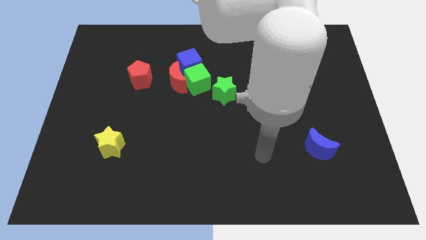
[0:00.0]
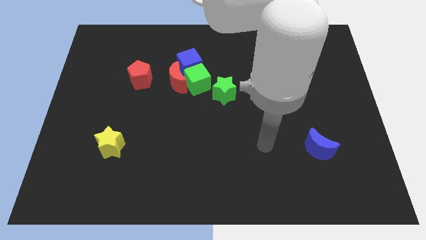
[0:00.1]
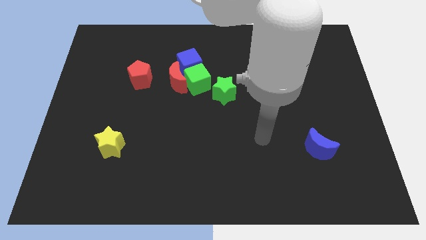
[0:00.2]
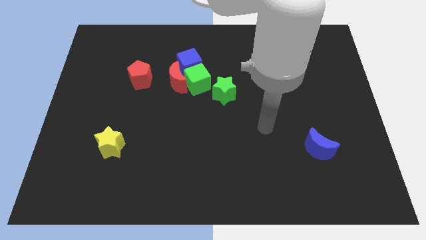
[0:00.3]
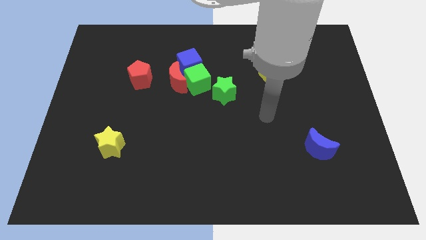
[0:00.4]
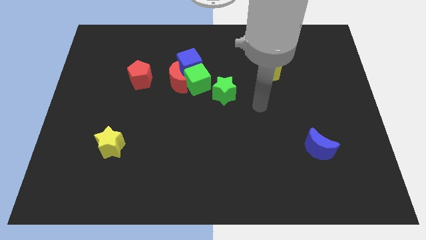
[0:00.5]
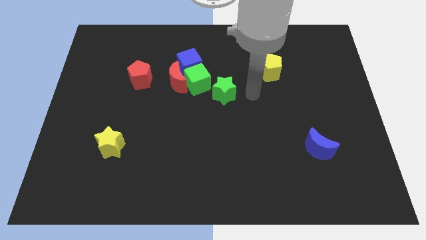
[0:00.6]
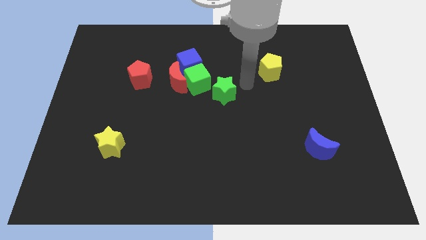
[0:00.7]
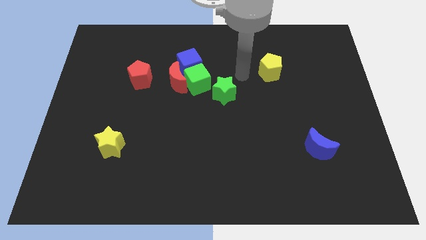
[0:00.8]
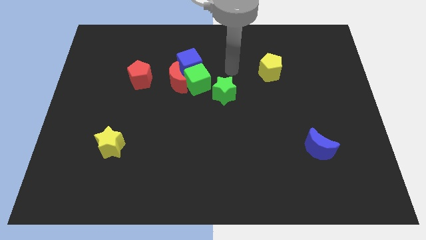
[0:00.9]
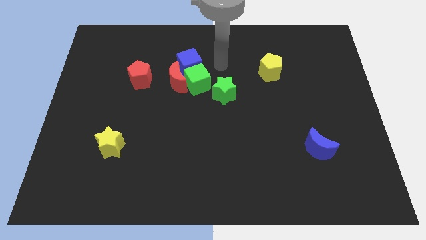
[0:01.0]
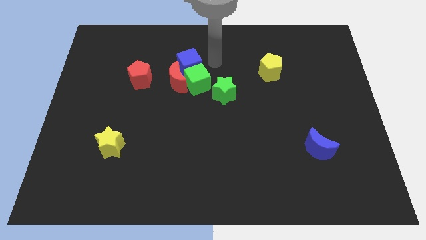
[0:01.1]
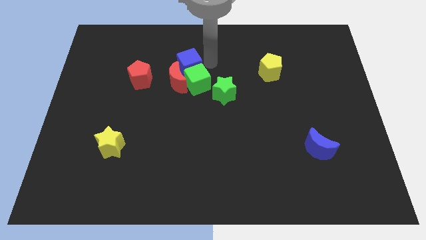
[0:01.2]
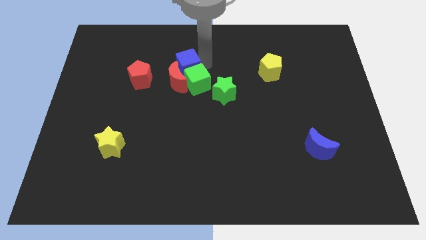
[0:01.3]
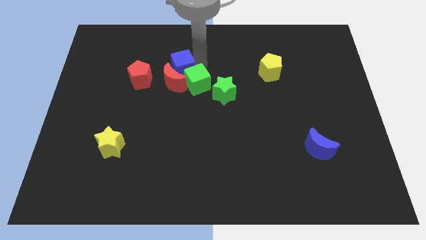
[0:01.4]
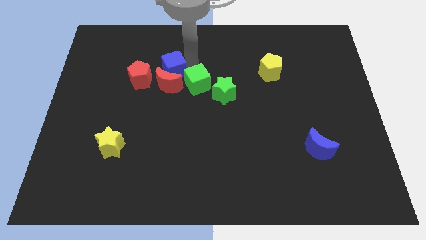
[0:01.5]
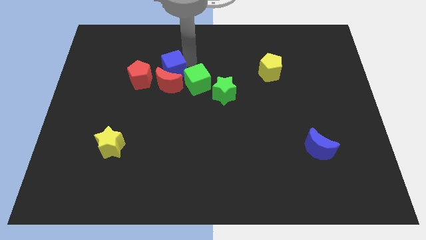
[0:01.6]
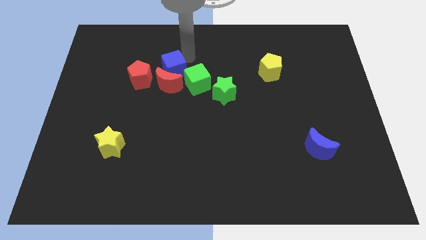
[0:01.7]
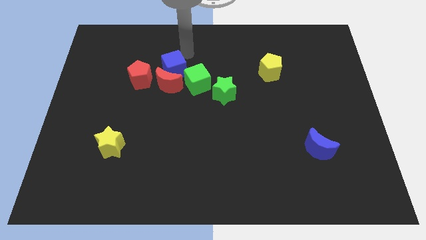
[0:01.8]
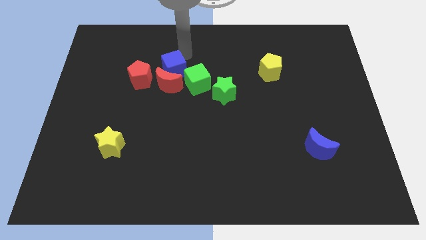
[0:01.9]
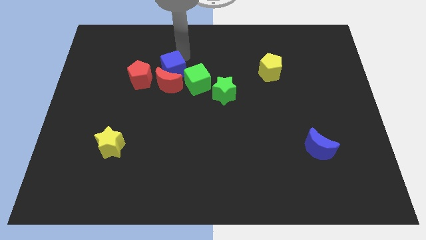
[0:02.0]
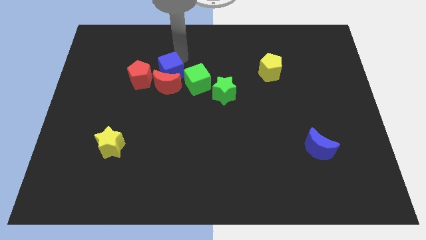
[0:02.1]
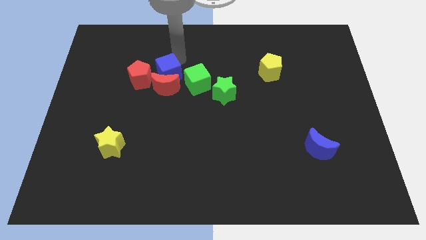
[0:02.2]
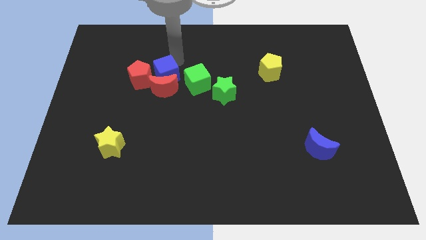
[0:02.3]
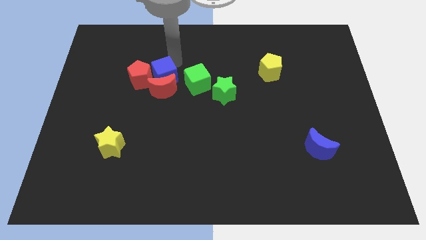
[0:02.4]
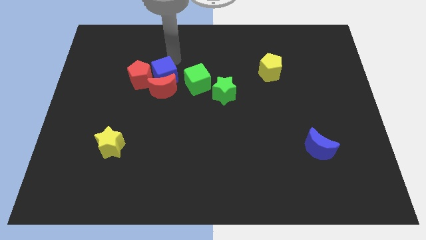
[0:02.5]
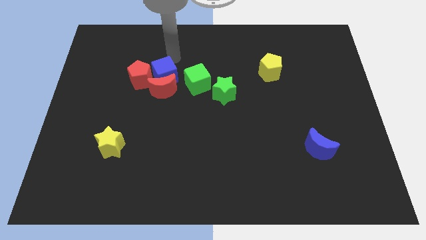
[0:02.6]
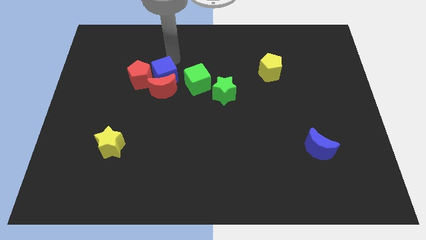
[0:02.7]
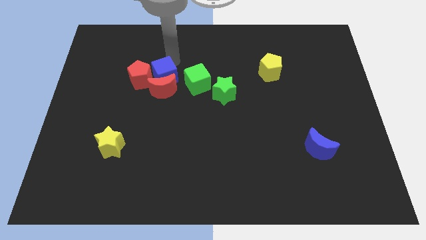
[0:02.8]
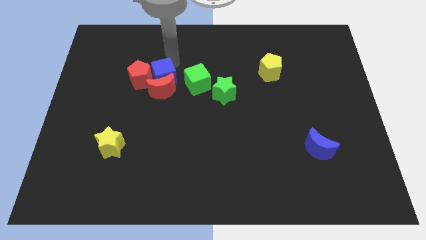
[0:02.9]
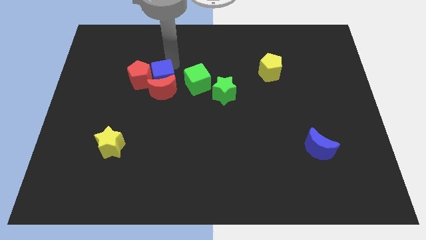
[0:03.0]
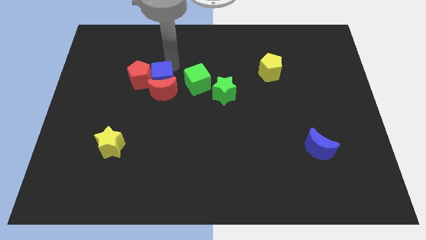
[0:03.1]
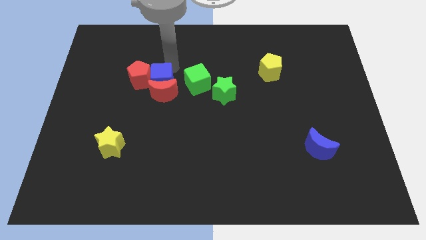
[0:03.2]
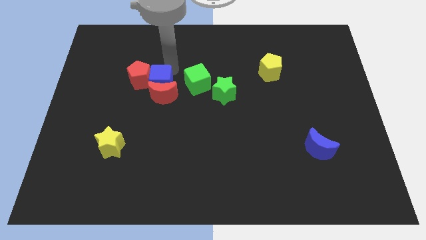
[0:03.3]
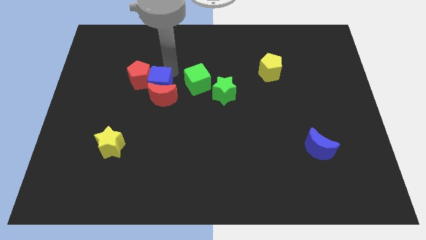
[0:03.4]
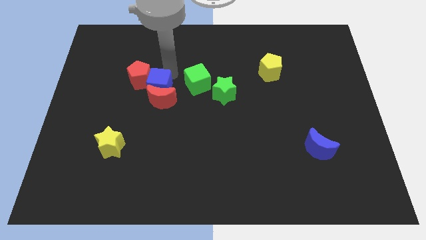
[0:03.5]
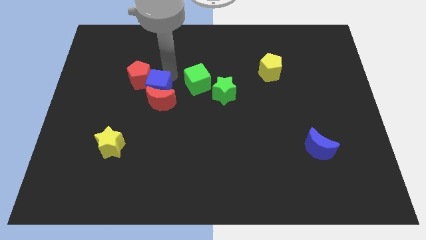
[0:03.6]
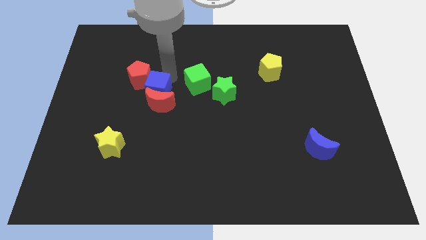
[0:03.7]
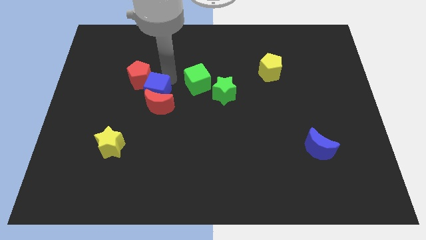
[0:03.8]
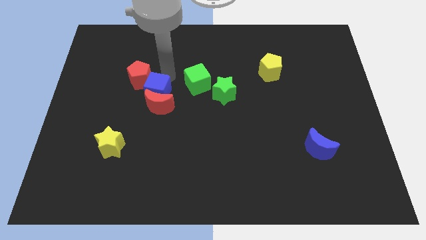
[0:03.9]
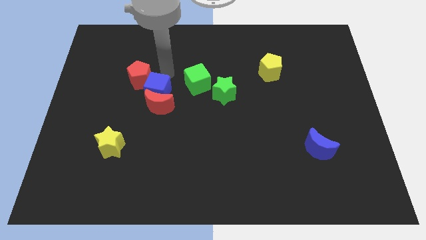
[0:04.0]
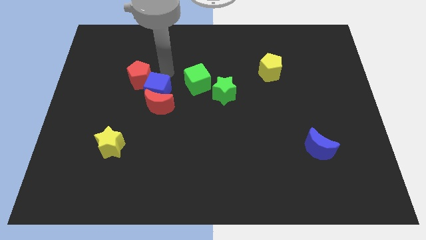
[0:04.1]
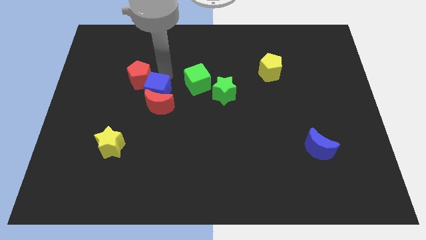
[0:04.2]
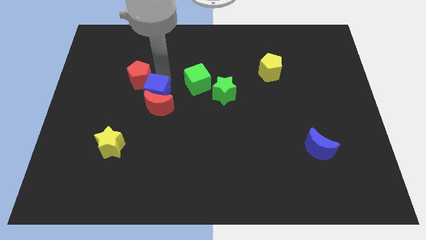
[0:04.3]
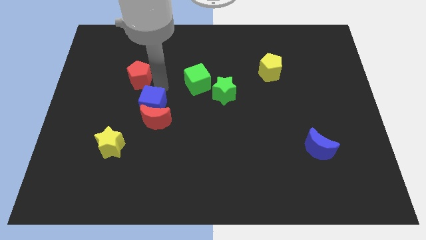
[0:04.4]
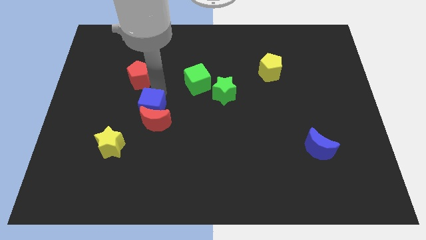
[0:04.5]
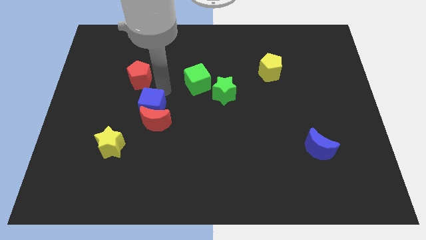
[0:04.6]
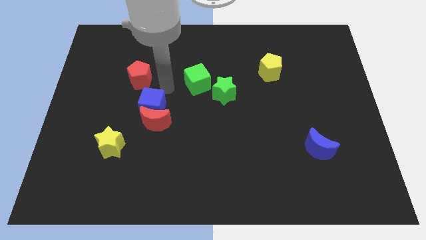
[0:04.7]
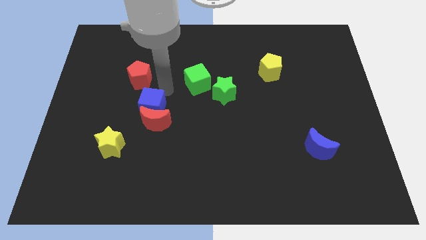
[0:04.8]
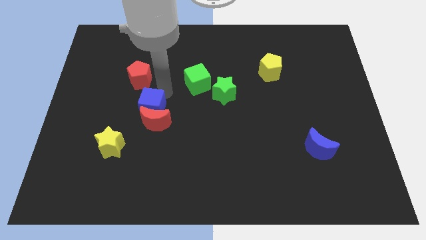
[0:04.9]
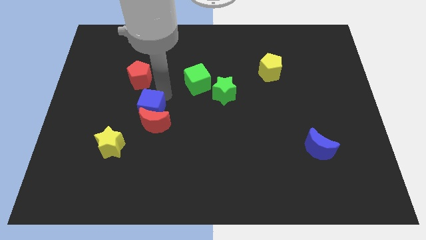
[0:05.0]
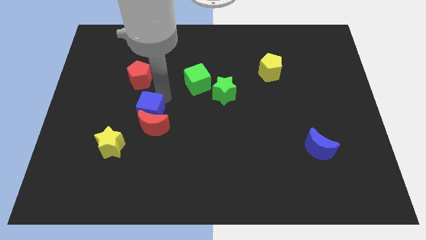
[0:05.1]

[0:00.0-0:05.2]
push the blue cube to the top right of the yellow star

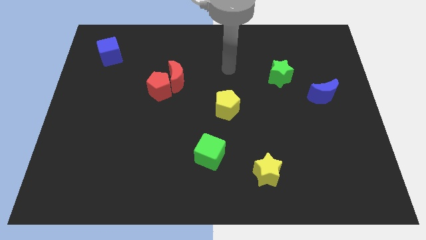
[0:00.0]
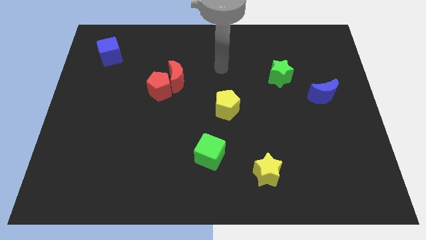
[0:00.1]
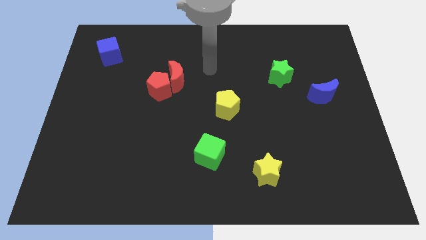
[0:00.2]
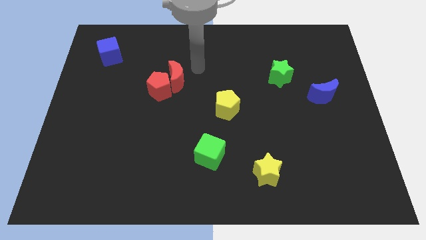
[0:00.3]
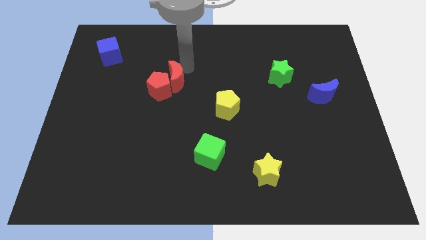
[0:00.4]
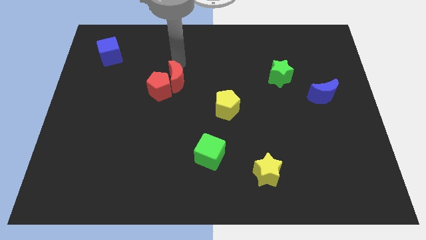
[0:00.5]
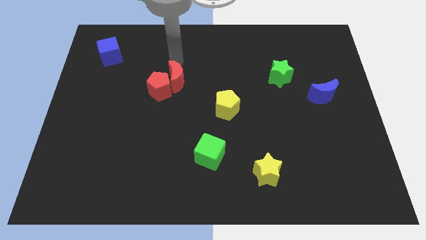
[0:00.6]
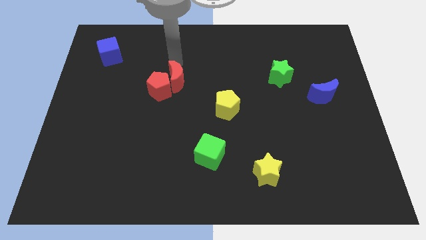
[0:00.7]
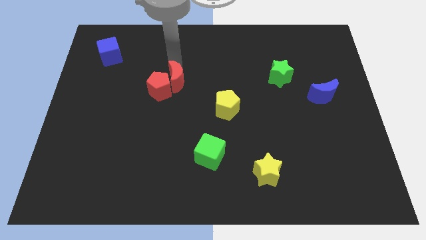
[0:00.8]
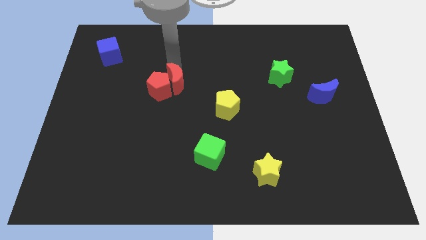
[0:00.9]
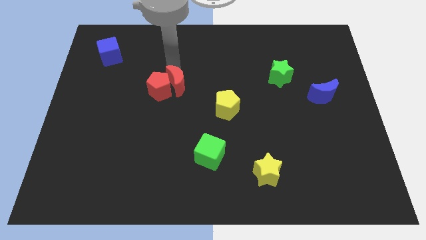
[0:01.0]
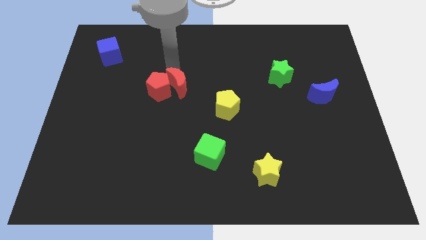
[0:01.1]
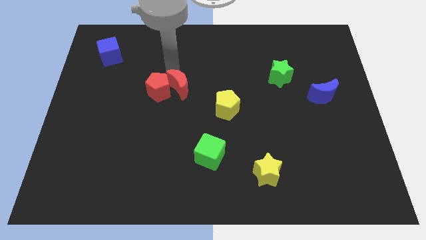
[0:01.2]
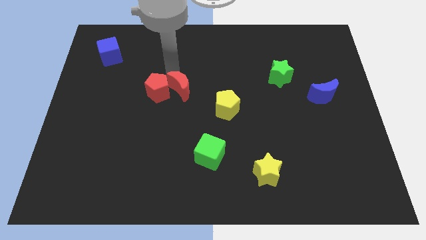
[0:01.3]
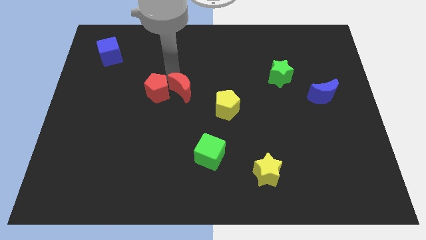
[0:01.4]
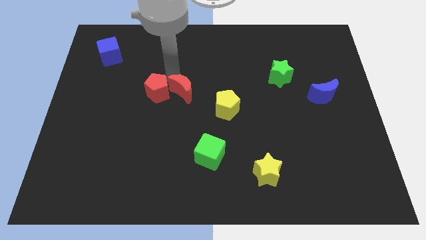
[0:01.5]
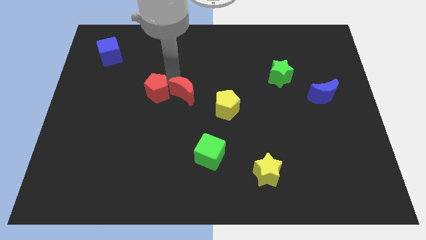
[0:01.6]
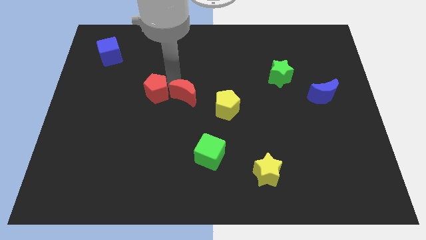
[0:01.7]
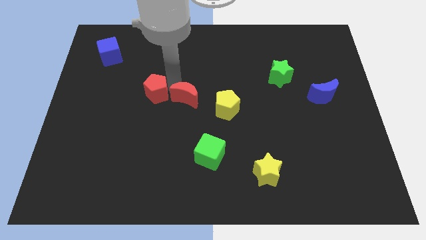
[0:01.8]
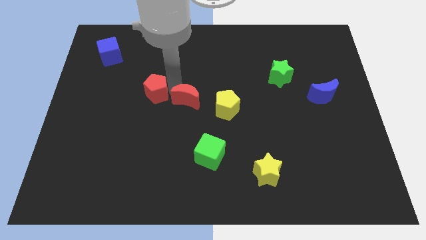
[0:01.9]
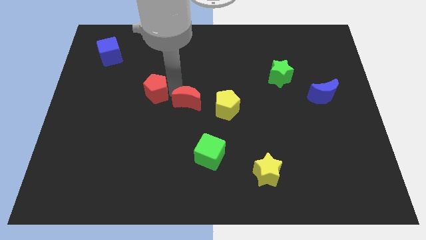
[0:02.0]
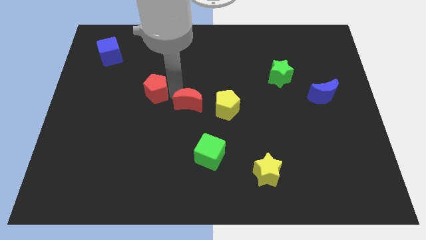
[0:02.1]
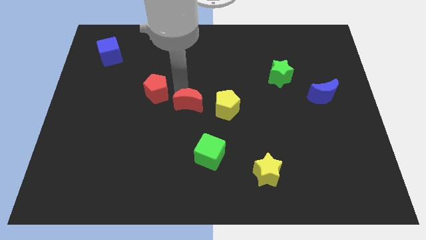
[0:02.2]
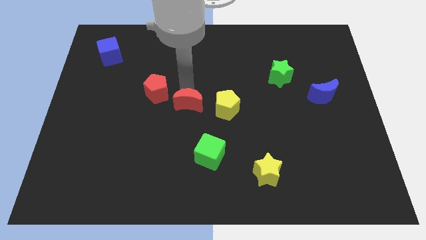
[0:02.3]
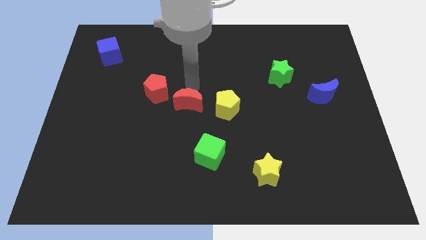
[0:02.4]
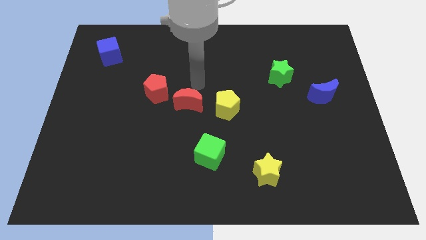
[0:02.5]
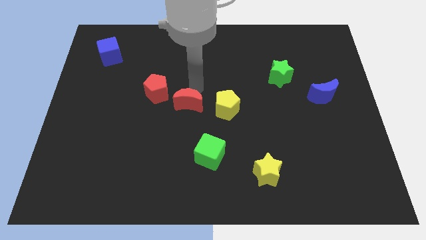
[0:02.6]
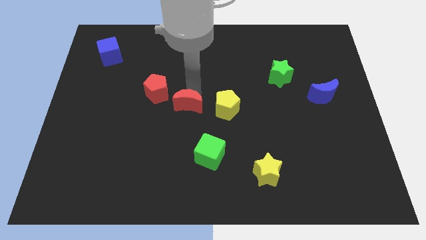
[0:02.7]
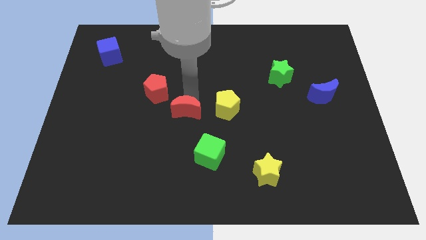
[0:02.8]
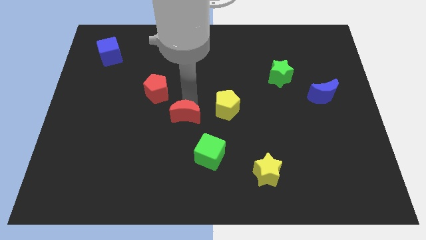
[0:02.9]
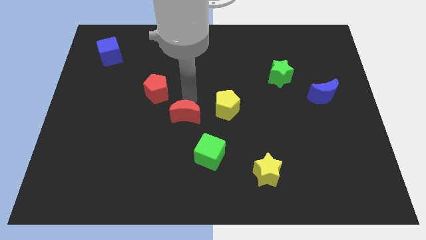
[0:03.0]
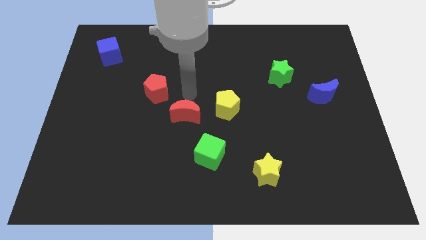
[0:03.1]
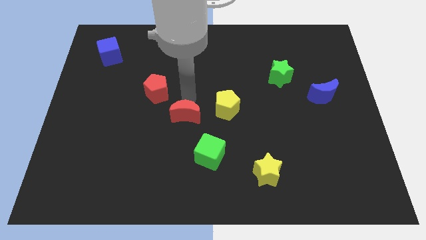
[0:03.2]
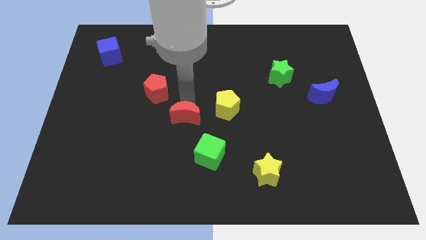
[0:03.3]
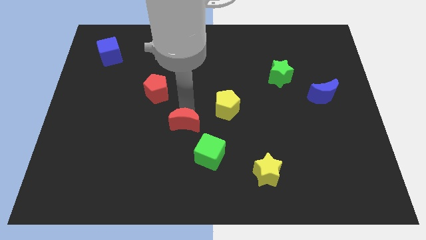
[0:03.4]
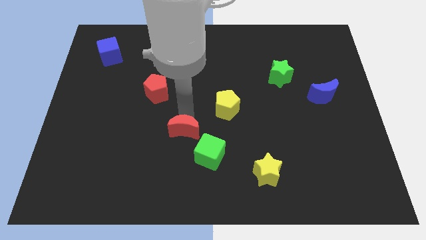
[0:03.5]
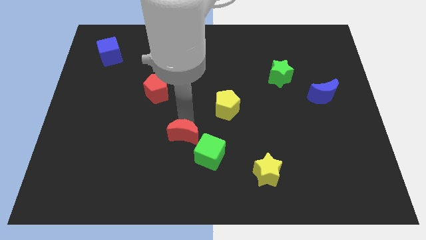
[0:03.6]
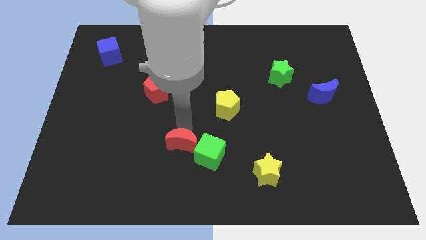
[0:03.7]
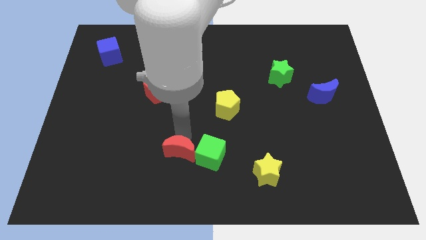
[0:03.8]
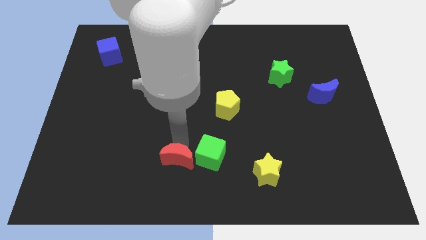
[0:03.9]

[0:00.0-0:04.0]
slide the red moon diagonally down and to the left of the green cube
